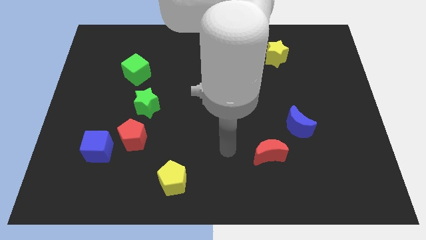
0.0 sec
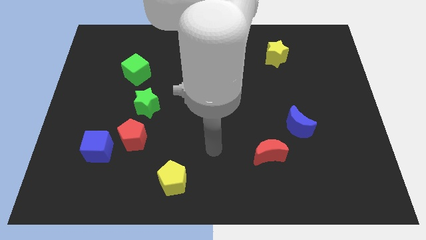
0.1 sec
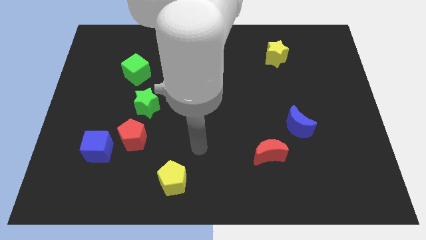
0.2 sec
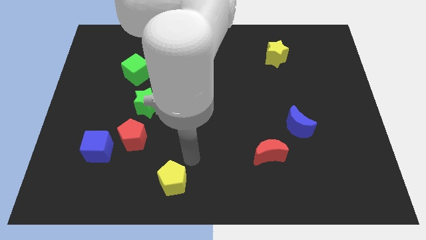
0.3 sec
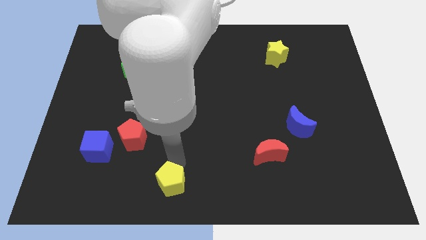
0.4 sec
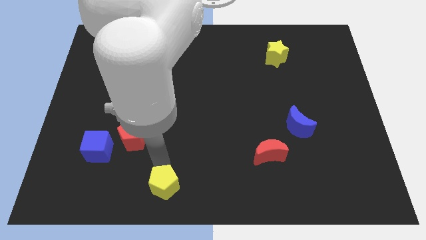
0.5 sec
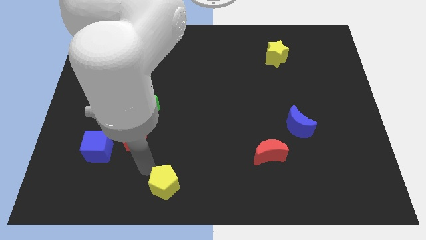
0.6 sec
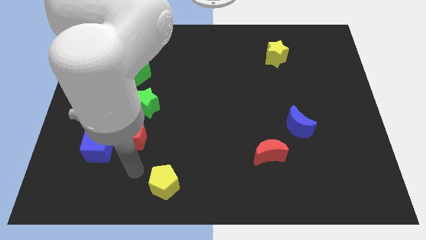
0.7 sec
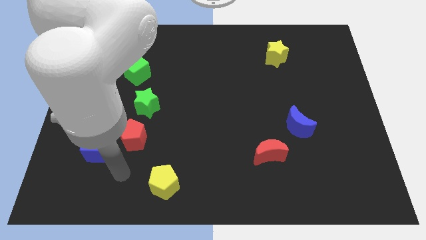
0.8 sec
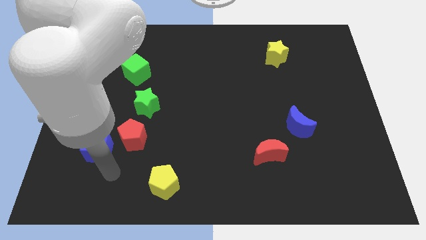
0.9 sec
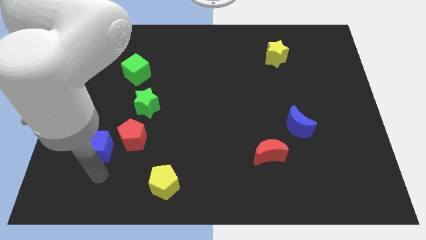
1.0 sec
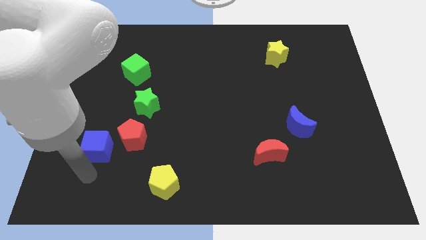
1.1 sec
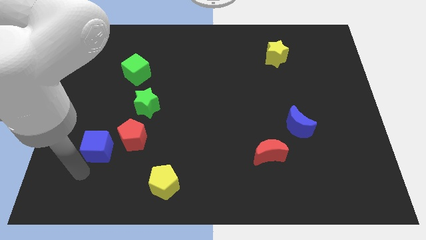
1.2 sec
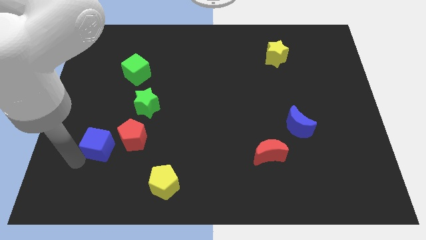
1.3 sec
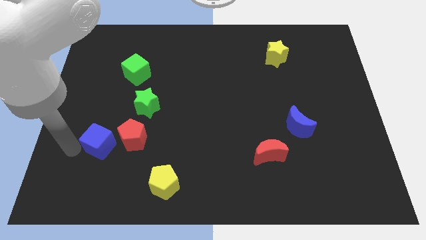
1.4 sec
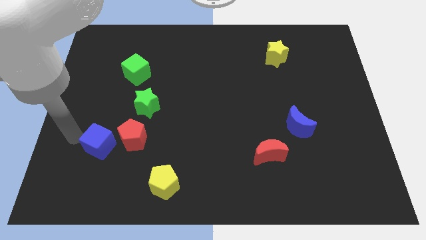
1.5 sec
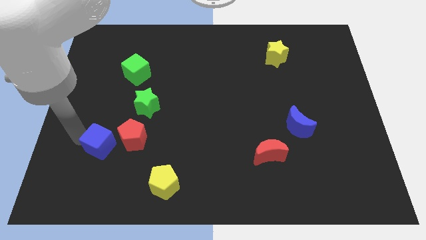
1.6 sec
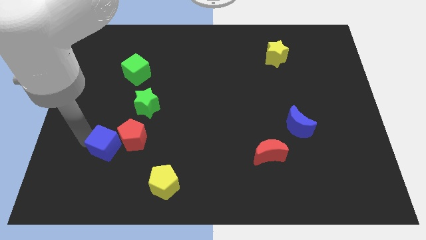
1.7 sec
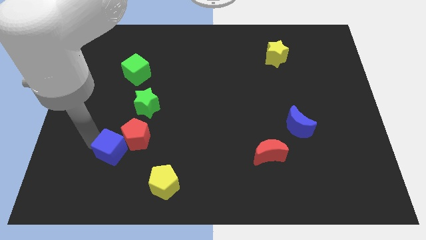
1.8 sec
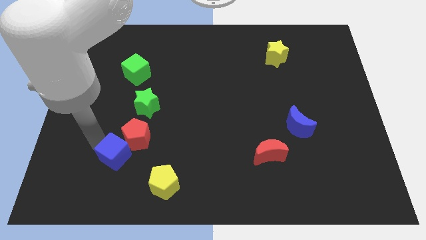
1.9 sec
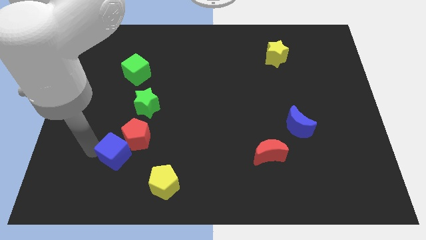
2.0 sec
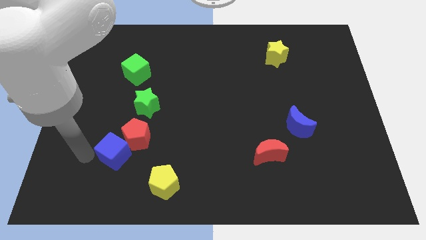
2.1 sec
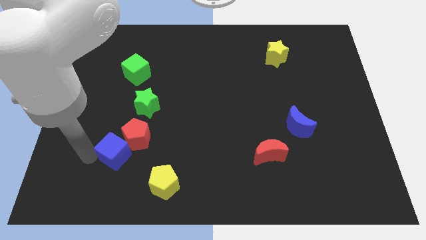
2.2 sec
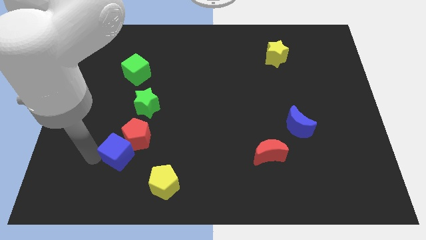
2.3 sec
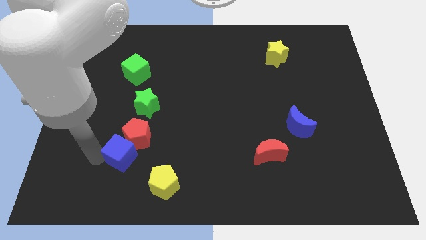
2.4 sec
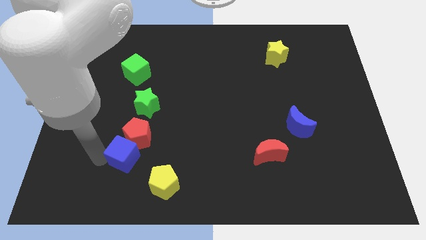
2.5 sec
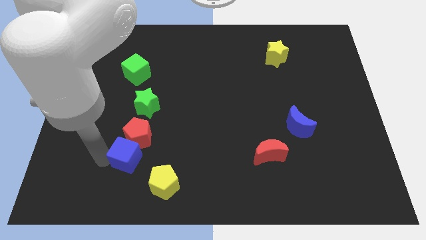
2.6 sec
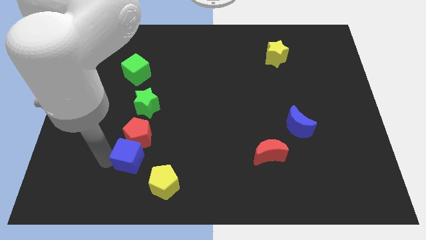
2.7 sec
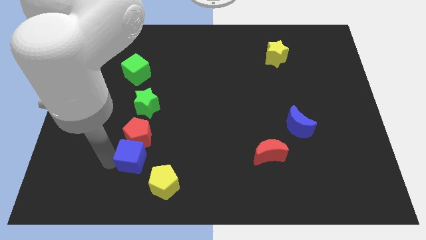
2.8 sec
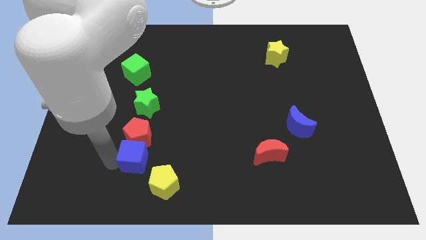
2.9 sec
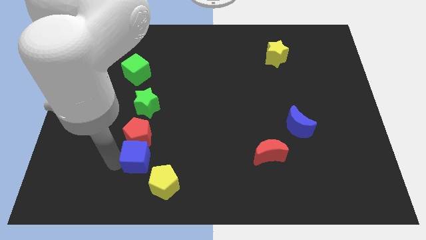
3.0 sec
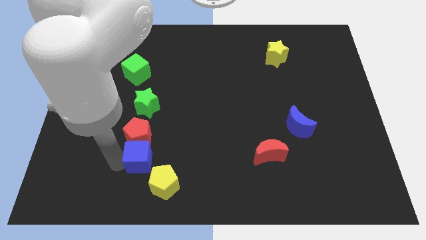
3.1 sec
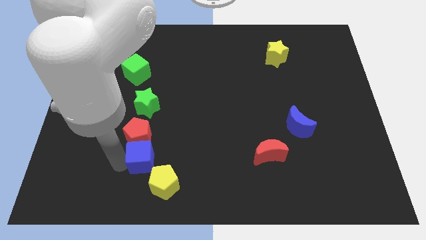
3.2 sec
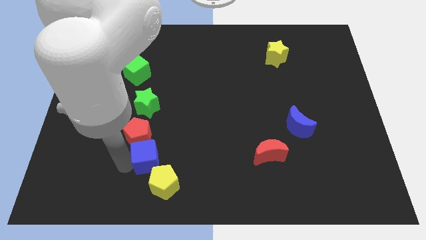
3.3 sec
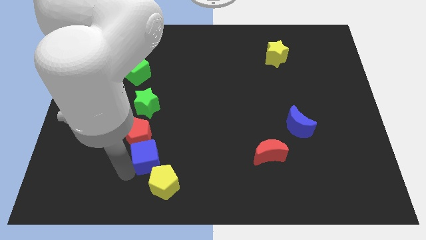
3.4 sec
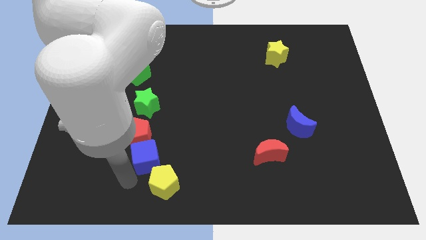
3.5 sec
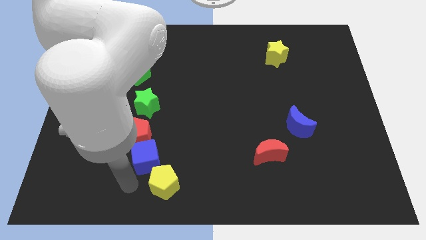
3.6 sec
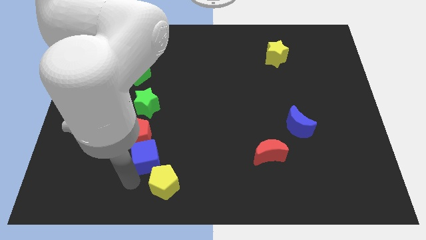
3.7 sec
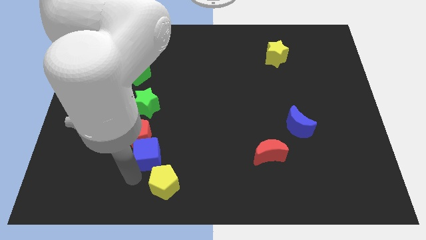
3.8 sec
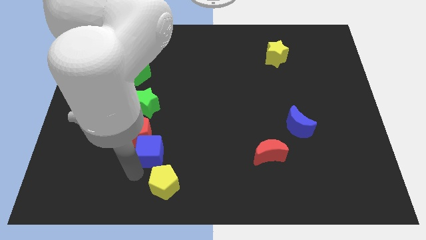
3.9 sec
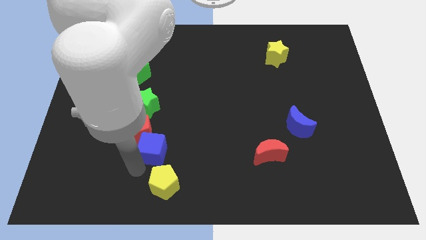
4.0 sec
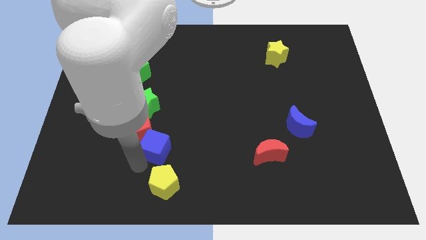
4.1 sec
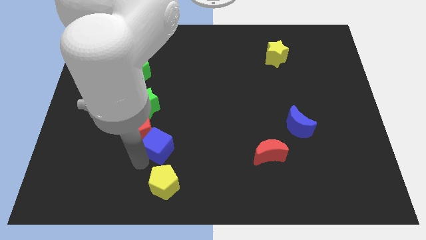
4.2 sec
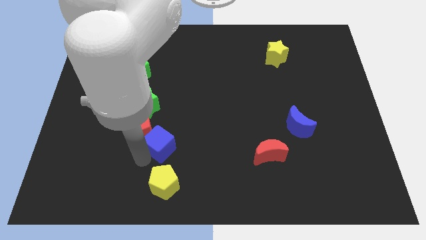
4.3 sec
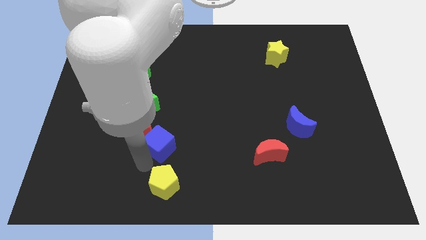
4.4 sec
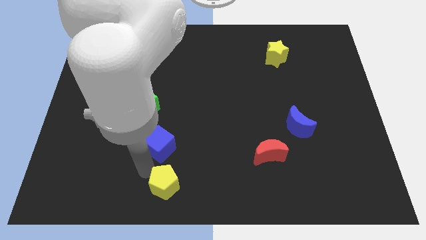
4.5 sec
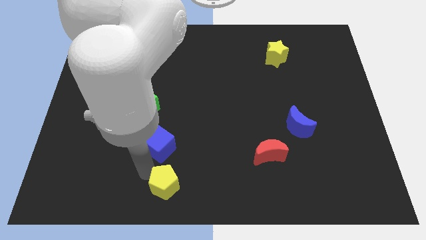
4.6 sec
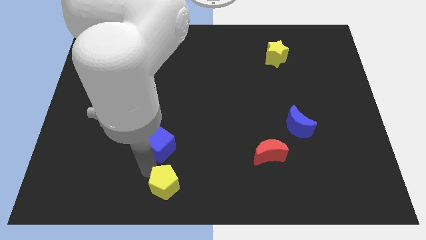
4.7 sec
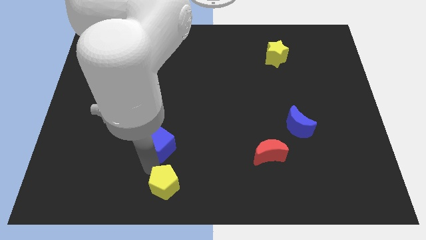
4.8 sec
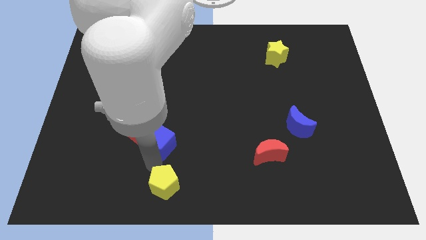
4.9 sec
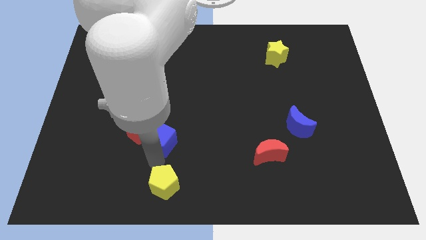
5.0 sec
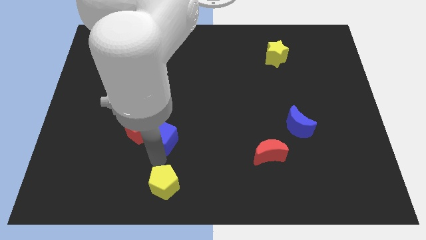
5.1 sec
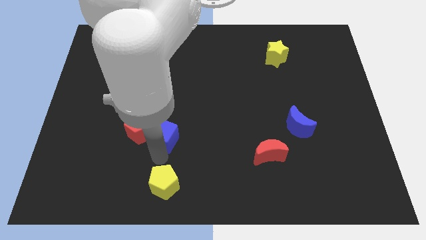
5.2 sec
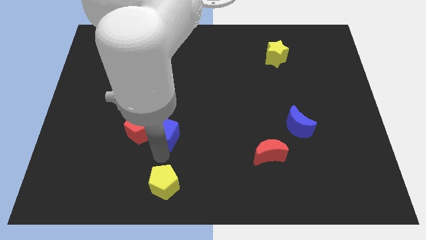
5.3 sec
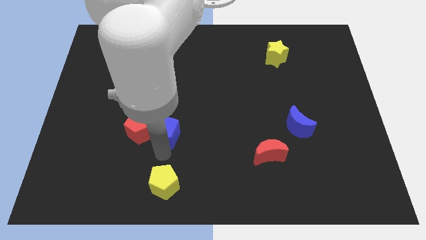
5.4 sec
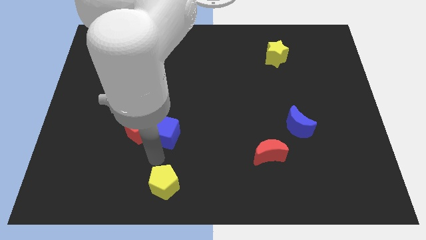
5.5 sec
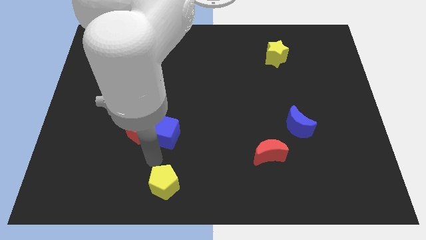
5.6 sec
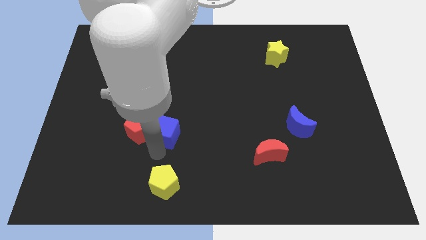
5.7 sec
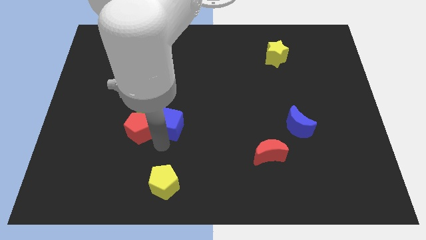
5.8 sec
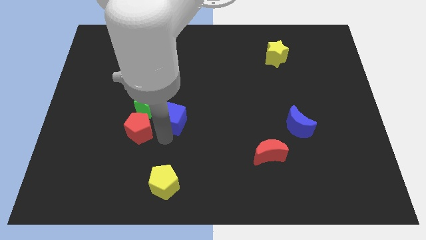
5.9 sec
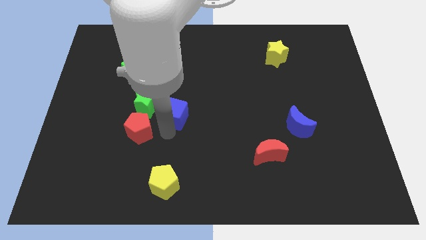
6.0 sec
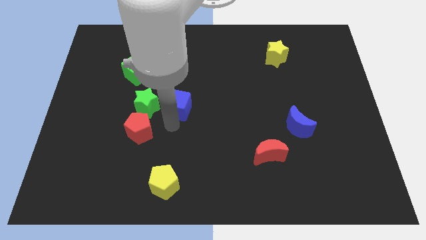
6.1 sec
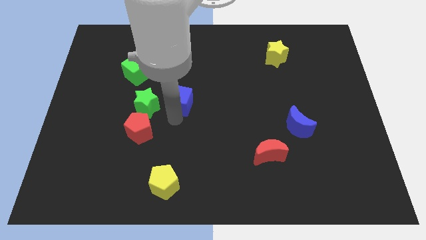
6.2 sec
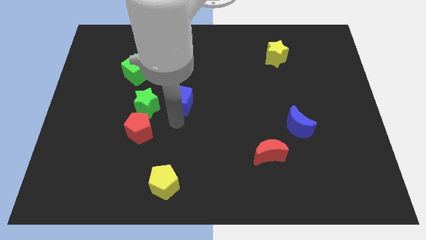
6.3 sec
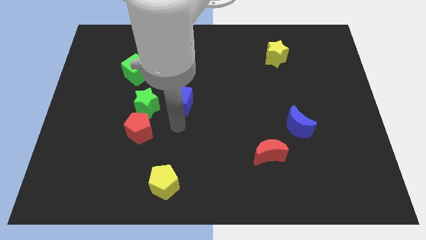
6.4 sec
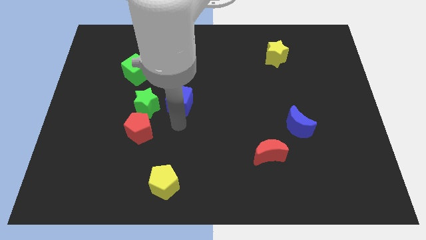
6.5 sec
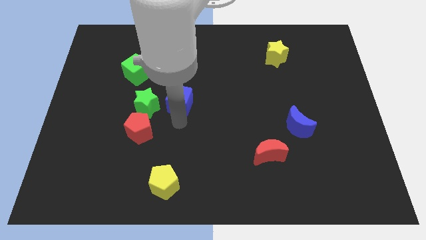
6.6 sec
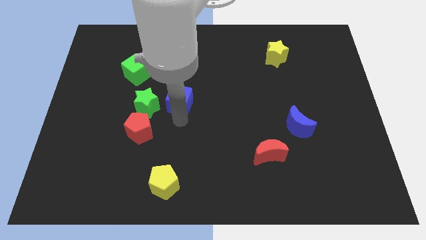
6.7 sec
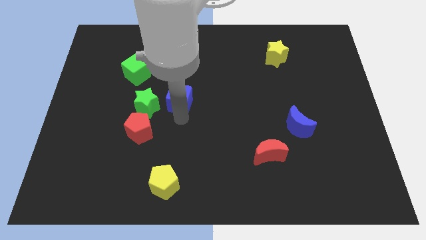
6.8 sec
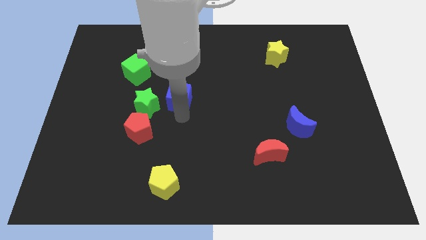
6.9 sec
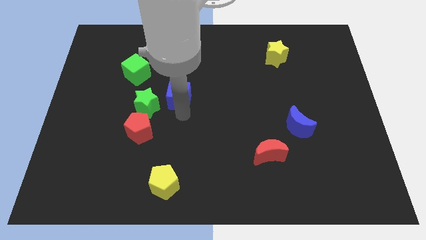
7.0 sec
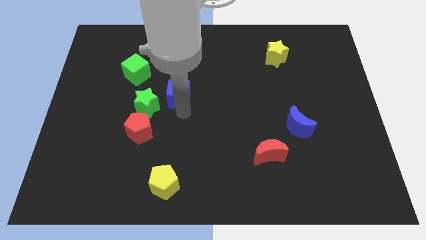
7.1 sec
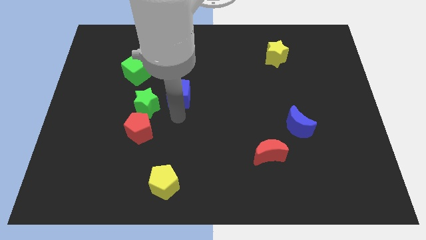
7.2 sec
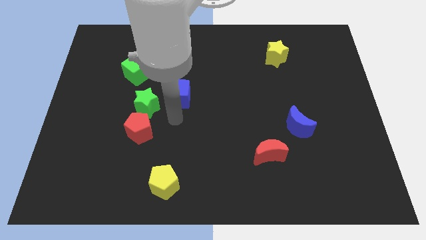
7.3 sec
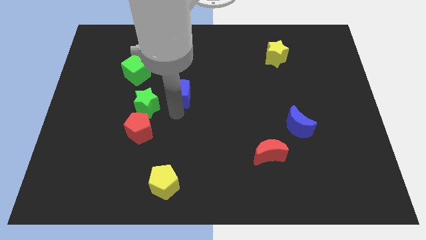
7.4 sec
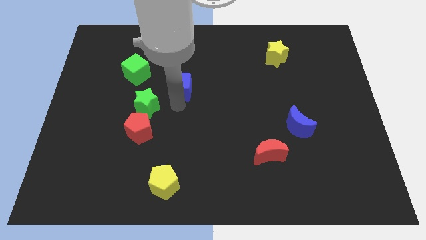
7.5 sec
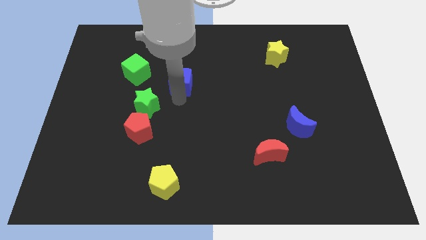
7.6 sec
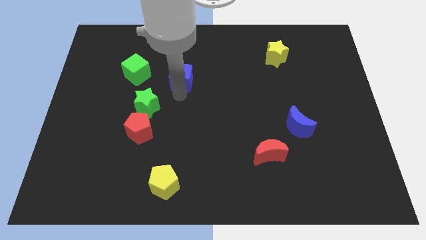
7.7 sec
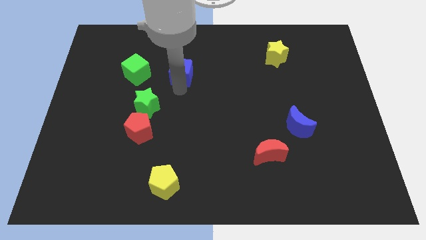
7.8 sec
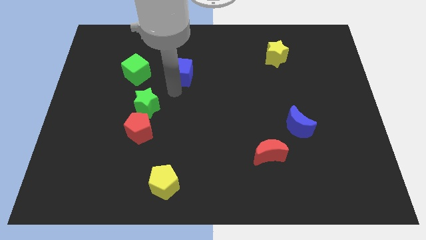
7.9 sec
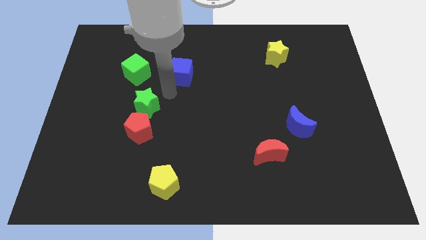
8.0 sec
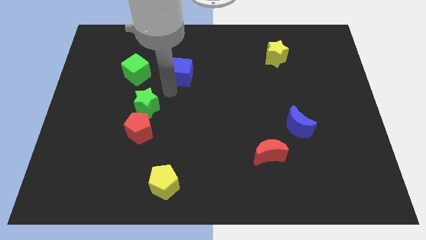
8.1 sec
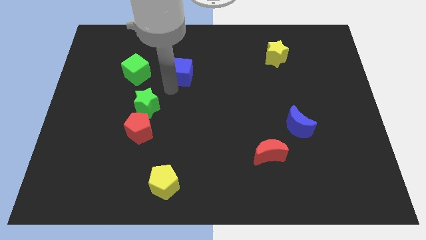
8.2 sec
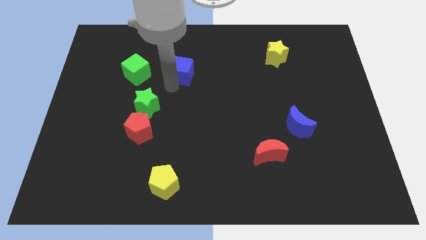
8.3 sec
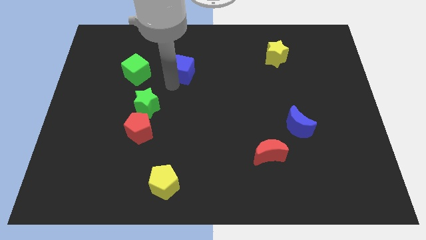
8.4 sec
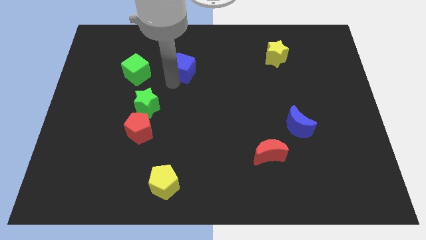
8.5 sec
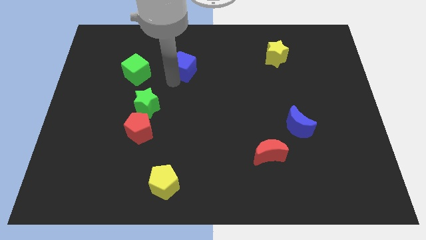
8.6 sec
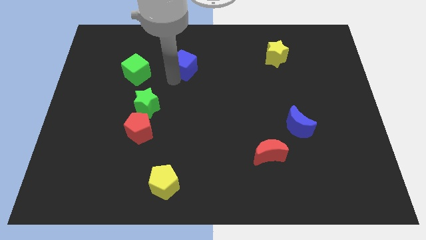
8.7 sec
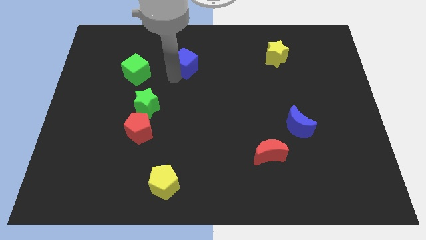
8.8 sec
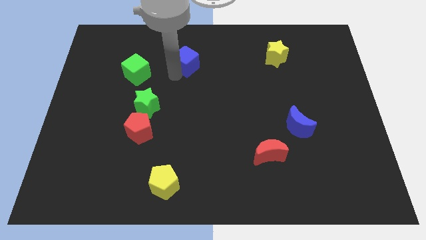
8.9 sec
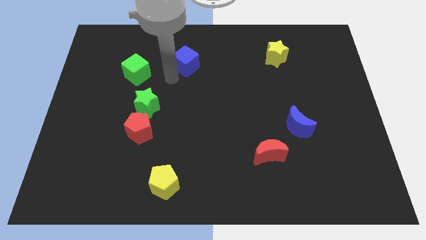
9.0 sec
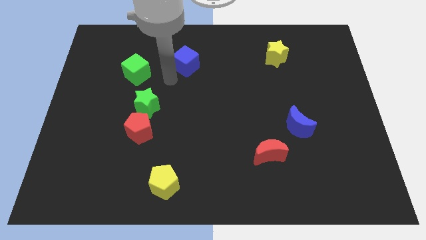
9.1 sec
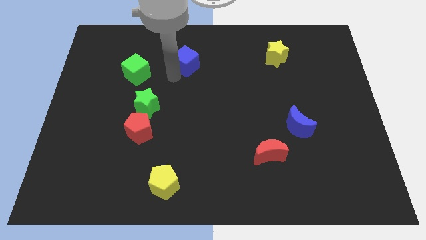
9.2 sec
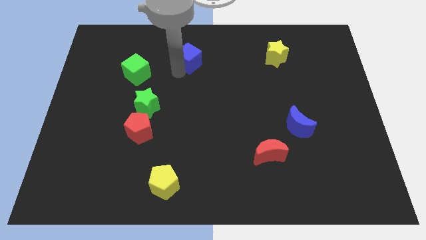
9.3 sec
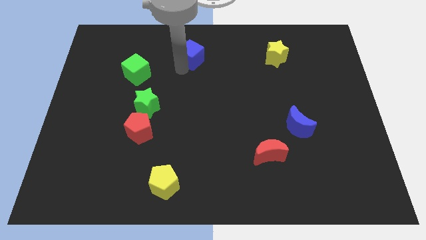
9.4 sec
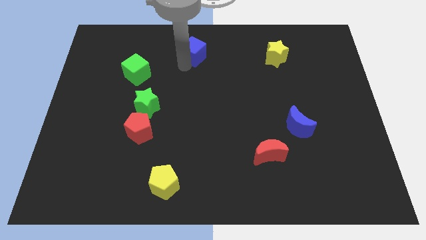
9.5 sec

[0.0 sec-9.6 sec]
push the blue cube to the top side
